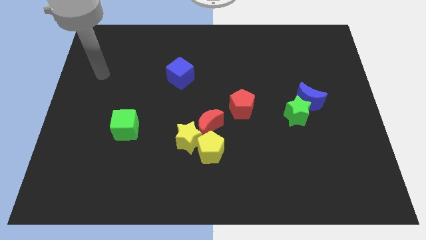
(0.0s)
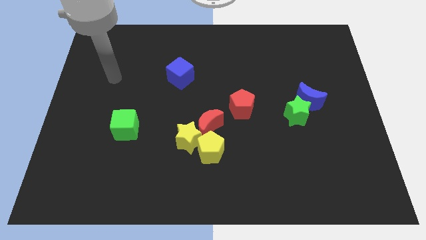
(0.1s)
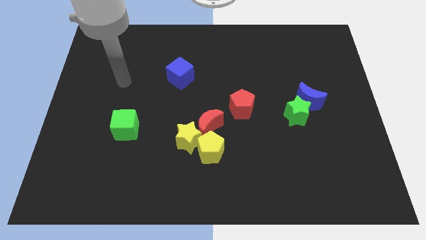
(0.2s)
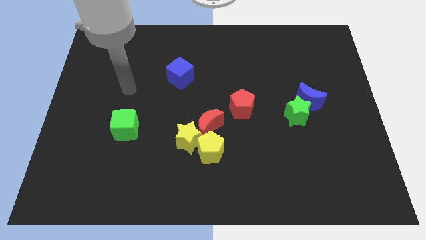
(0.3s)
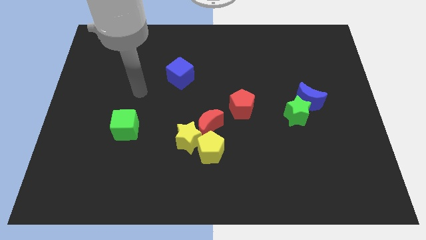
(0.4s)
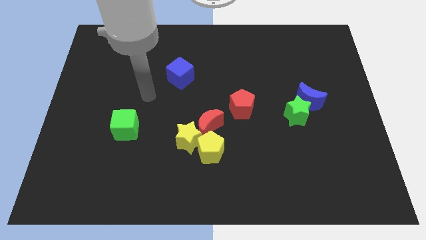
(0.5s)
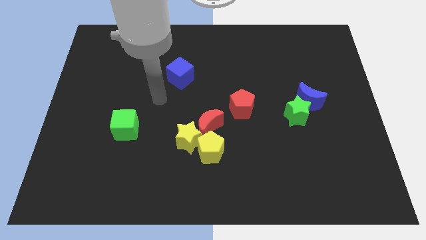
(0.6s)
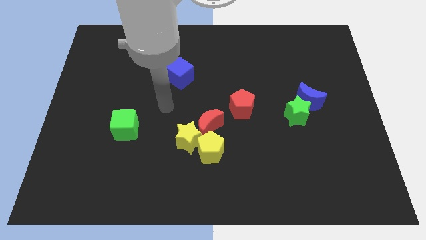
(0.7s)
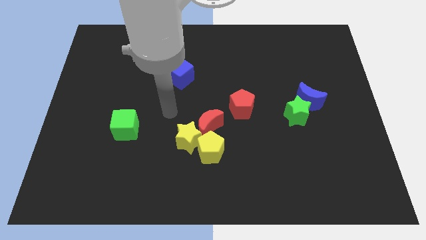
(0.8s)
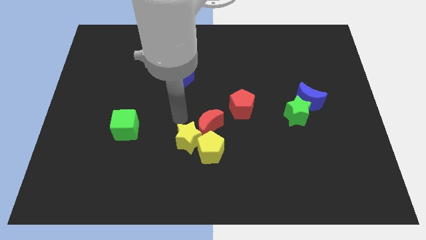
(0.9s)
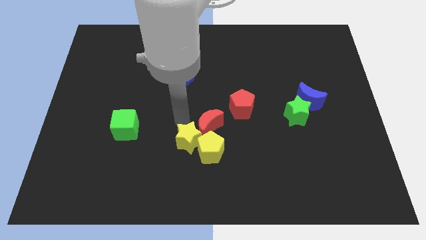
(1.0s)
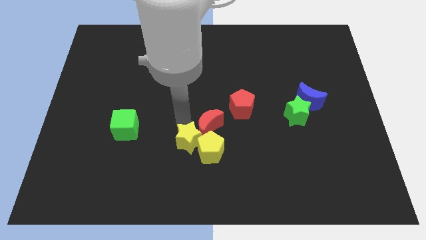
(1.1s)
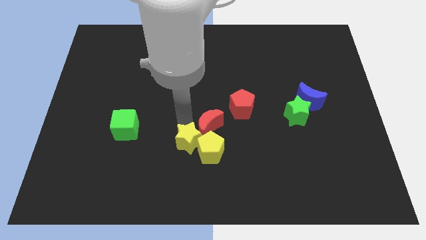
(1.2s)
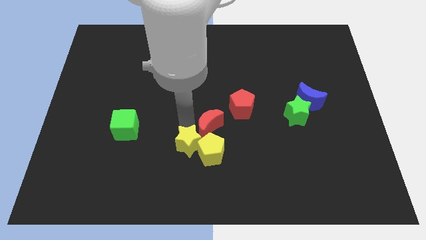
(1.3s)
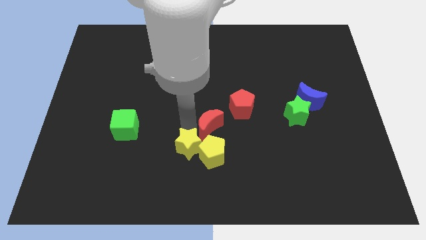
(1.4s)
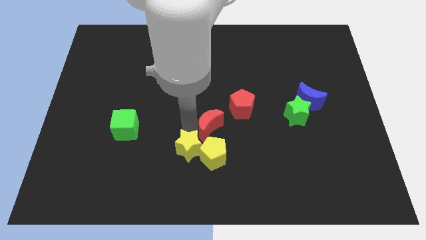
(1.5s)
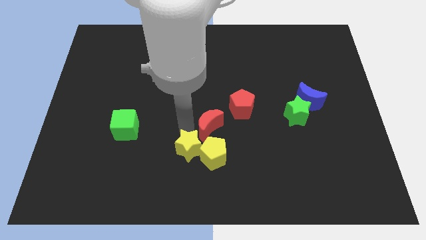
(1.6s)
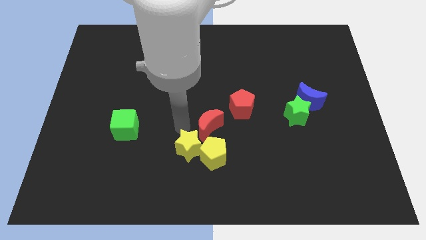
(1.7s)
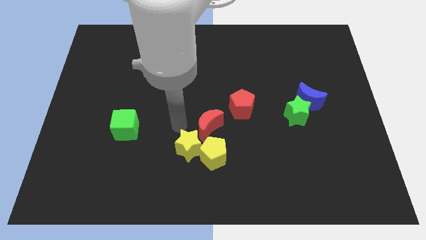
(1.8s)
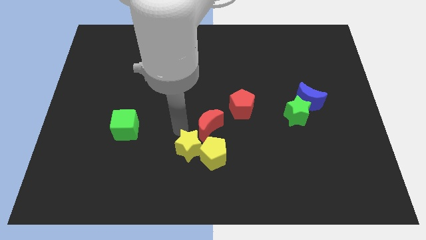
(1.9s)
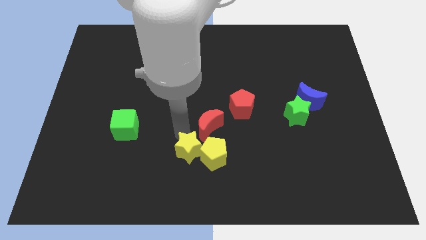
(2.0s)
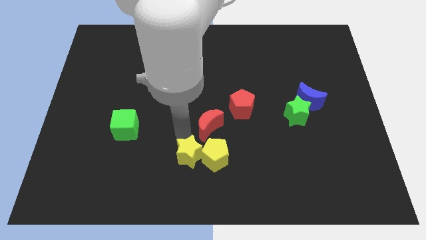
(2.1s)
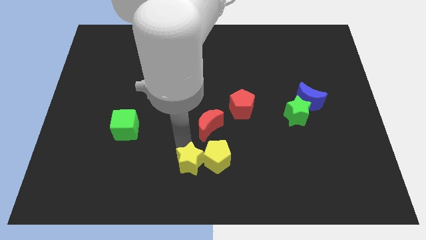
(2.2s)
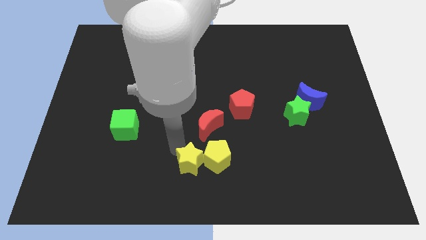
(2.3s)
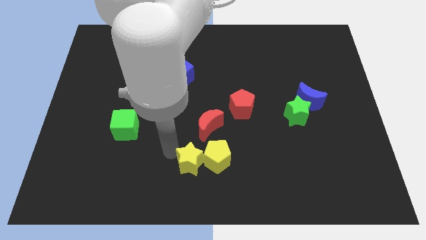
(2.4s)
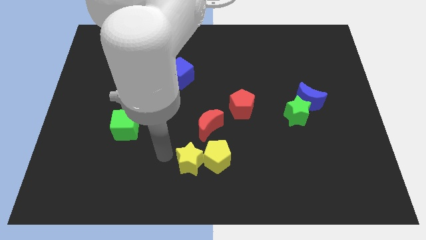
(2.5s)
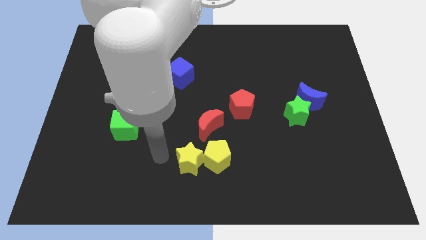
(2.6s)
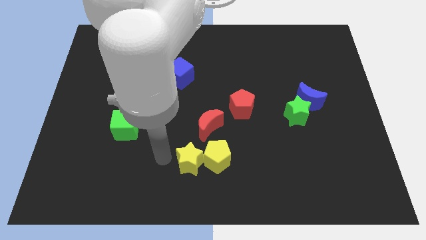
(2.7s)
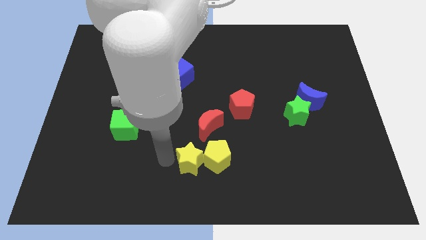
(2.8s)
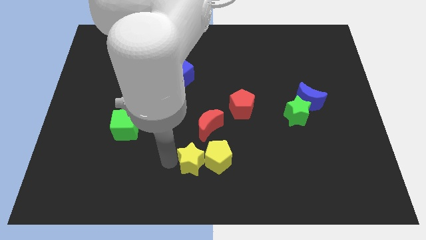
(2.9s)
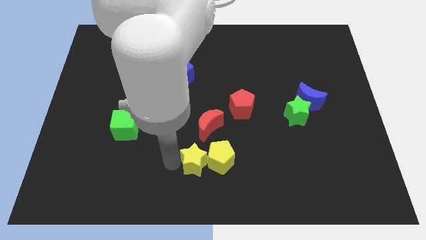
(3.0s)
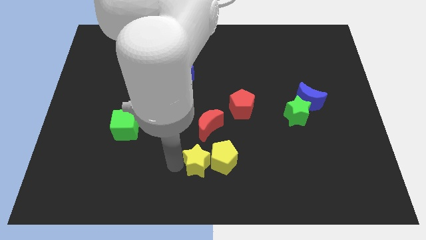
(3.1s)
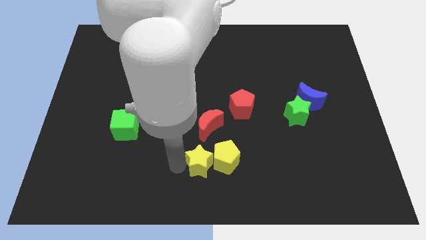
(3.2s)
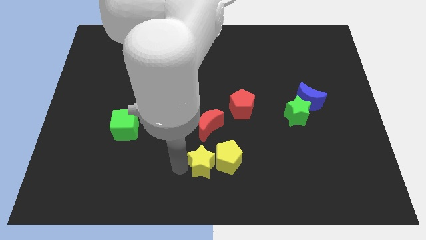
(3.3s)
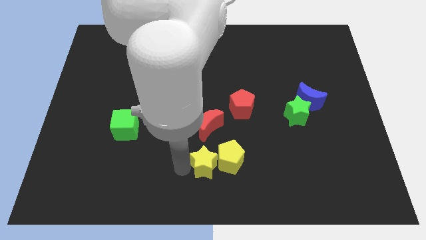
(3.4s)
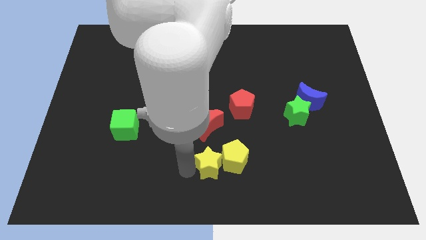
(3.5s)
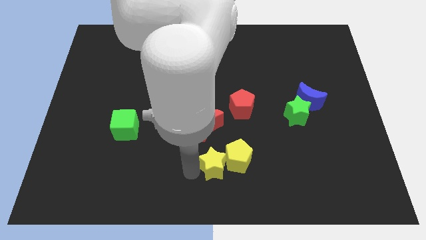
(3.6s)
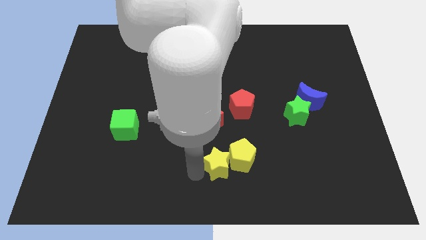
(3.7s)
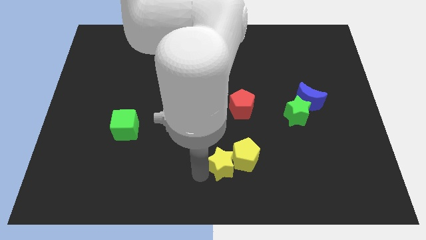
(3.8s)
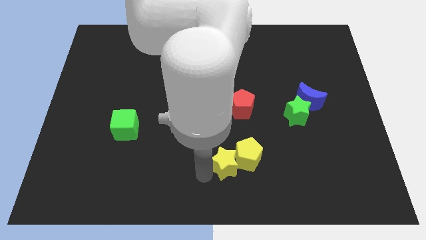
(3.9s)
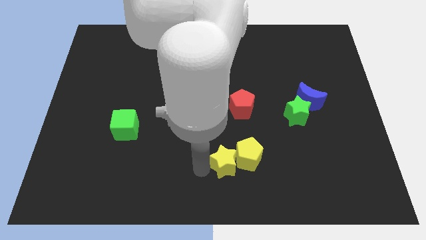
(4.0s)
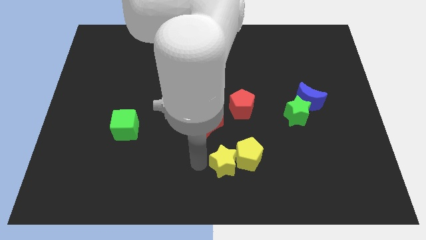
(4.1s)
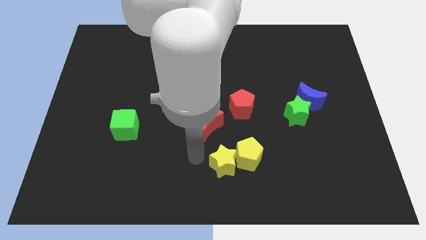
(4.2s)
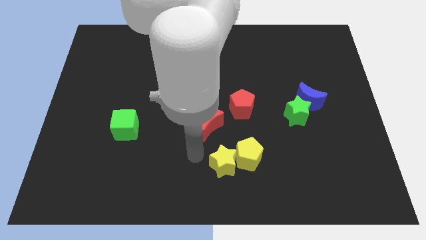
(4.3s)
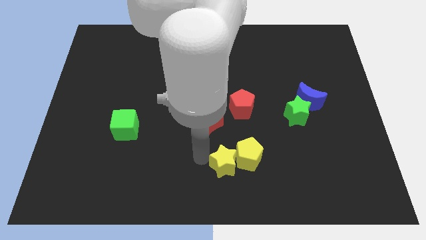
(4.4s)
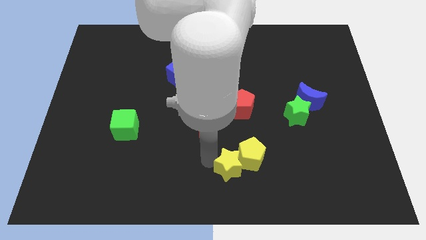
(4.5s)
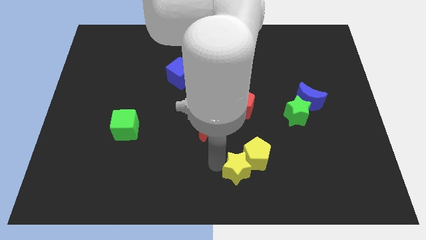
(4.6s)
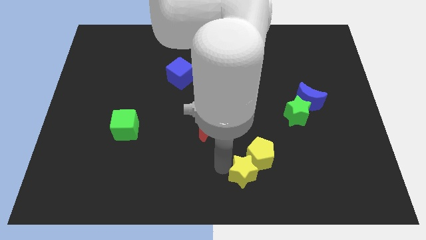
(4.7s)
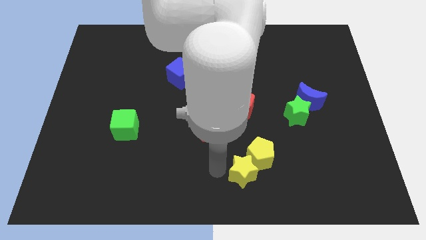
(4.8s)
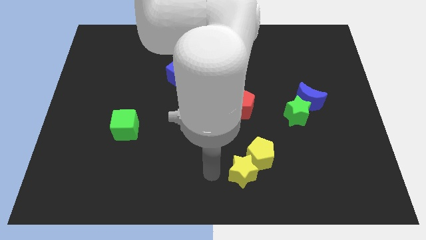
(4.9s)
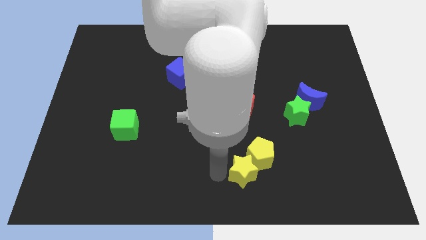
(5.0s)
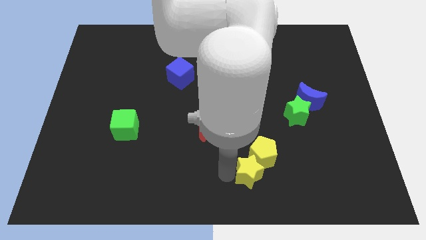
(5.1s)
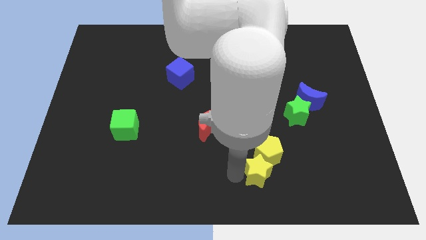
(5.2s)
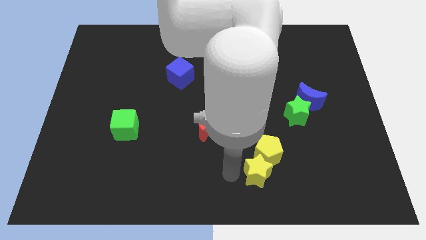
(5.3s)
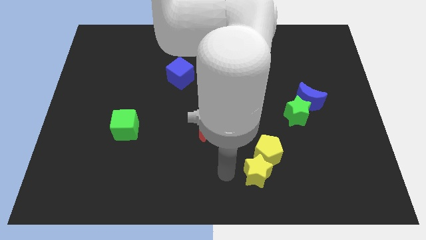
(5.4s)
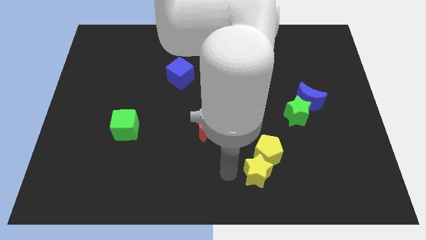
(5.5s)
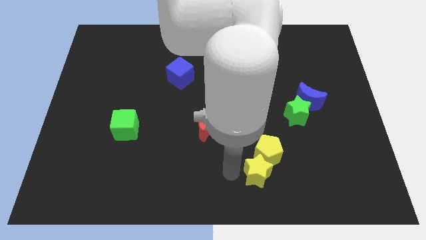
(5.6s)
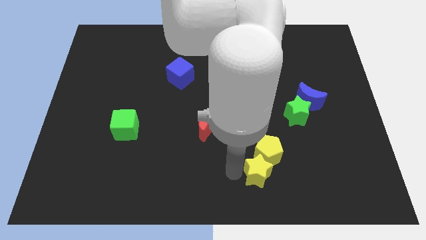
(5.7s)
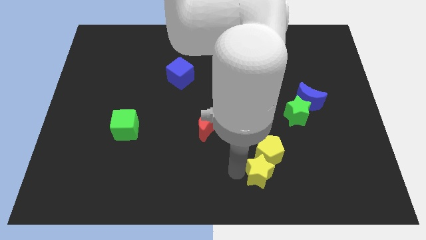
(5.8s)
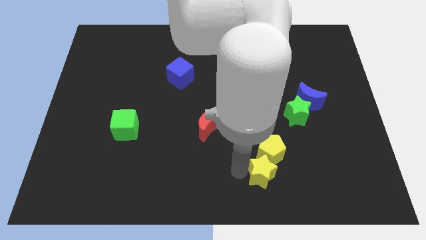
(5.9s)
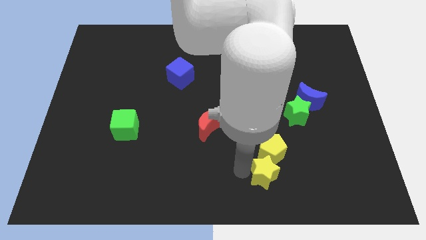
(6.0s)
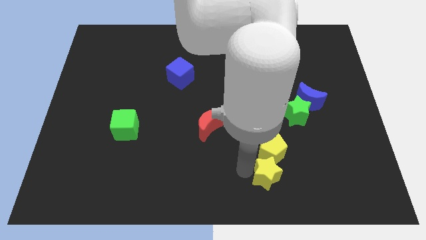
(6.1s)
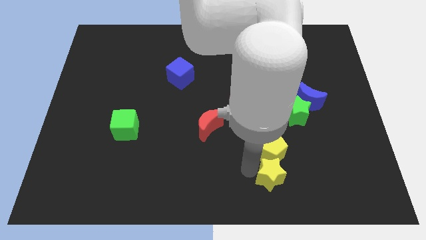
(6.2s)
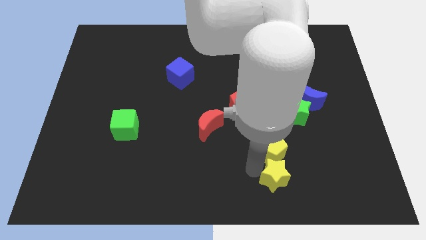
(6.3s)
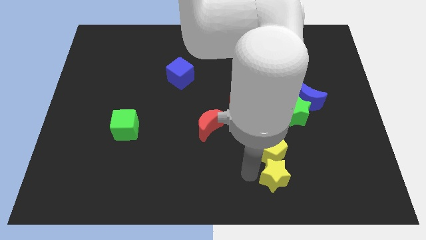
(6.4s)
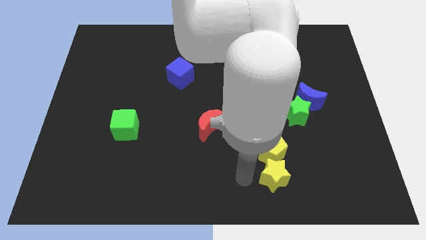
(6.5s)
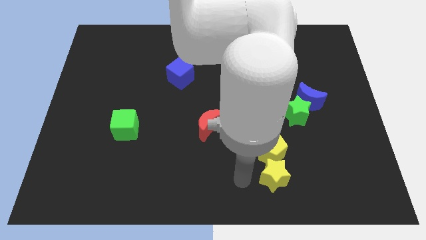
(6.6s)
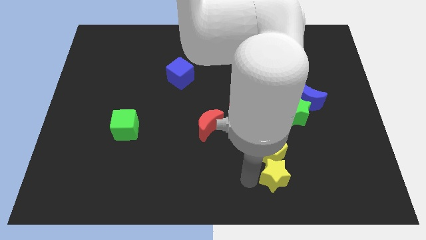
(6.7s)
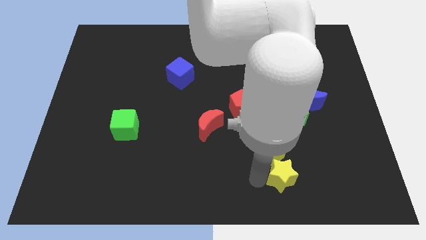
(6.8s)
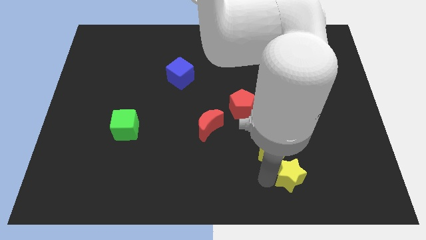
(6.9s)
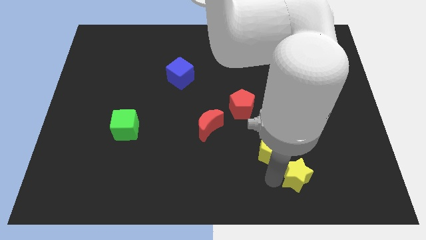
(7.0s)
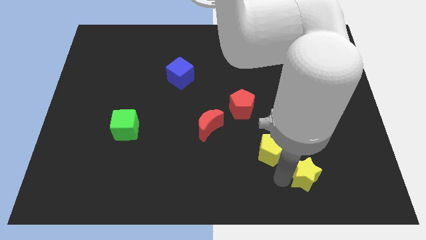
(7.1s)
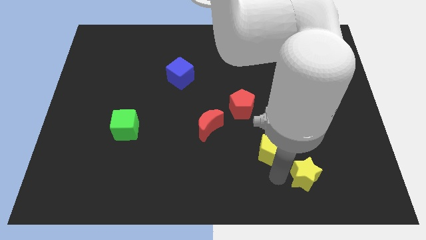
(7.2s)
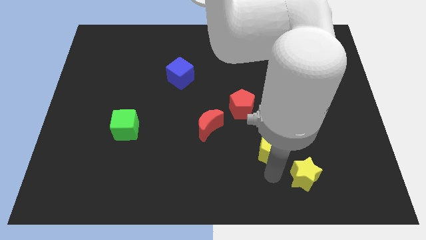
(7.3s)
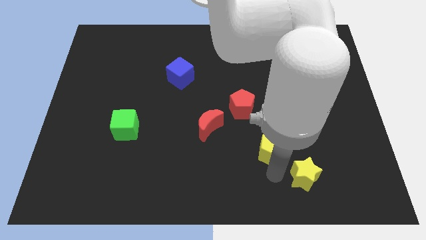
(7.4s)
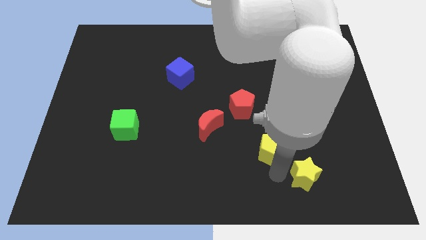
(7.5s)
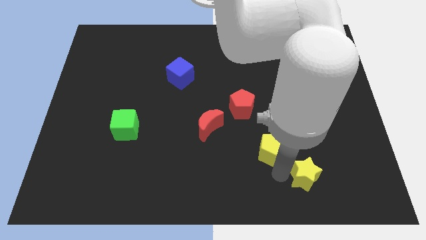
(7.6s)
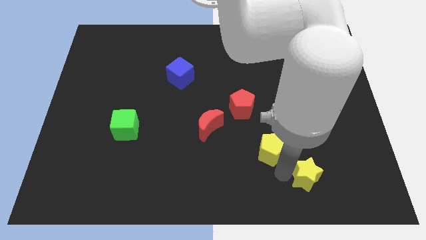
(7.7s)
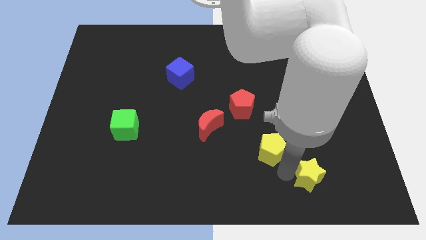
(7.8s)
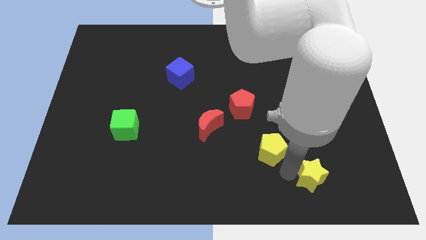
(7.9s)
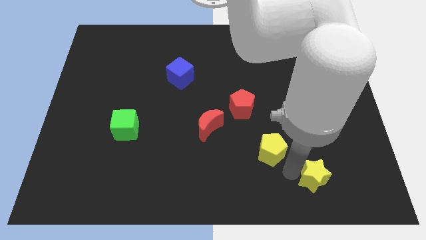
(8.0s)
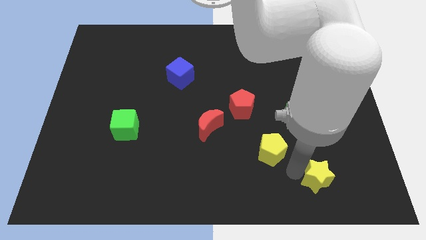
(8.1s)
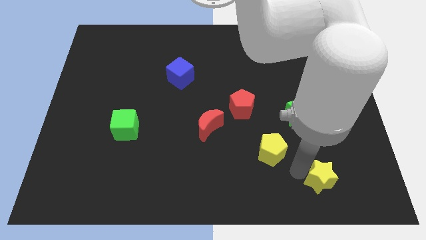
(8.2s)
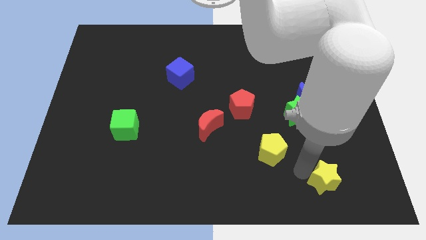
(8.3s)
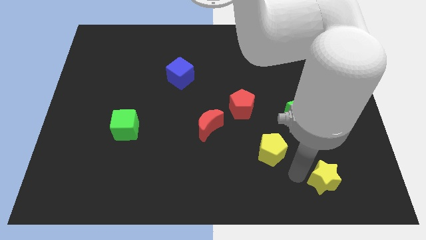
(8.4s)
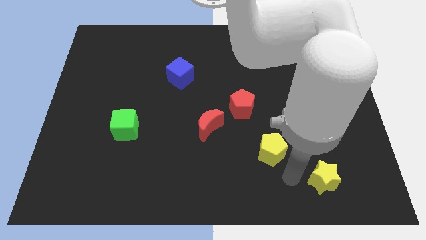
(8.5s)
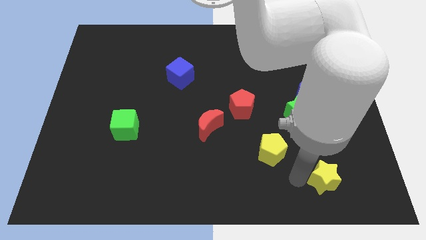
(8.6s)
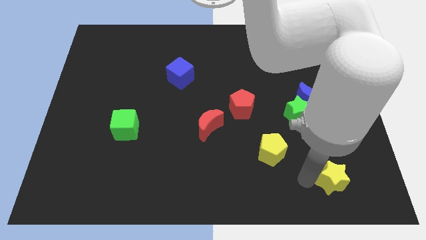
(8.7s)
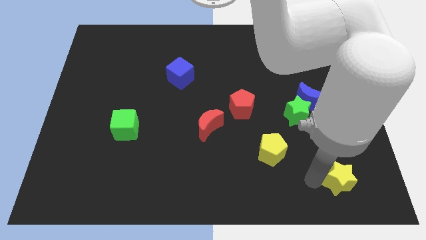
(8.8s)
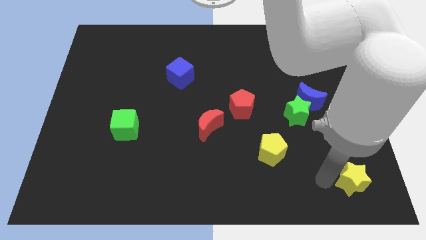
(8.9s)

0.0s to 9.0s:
slide the yellow star to the bottom right of the board
